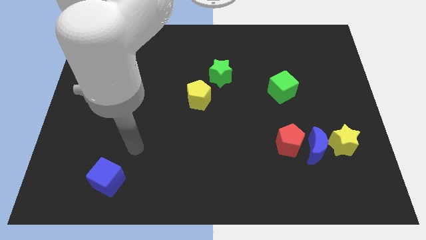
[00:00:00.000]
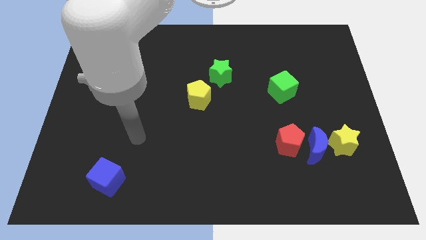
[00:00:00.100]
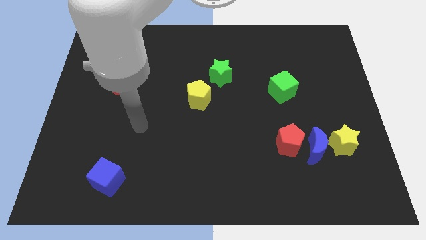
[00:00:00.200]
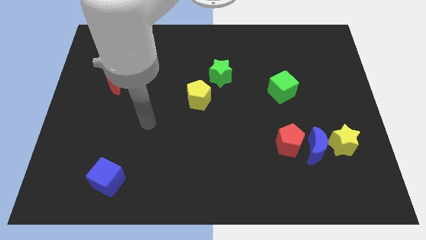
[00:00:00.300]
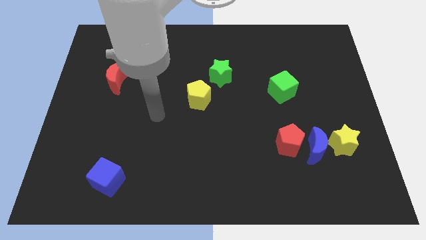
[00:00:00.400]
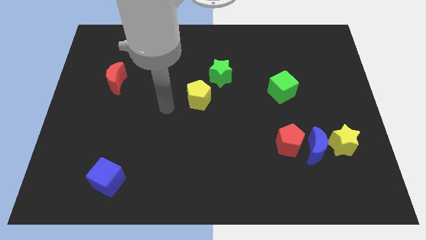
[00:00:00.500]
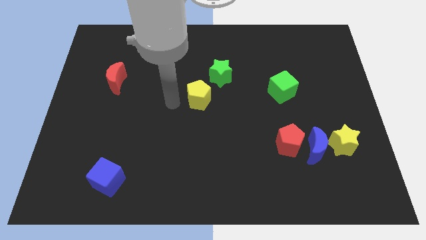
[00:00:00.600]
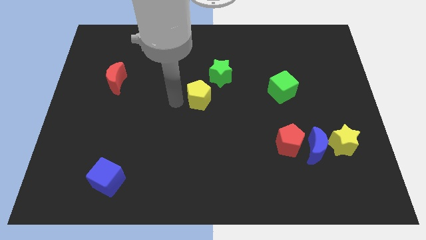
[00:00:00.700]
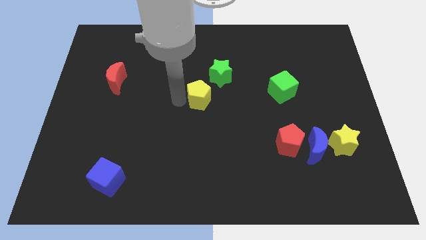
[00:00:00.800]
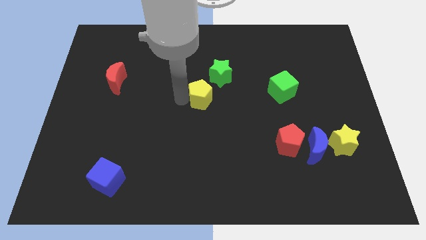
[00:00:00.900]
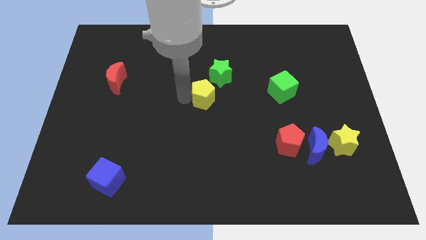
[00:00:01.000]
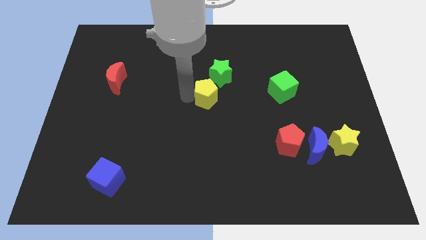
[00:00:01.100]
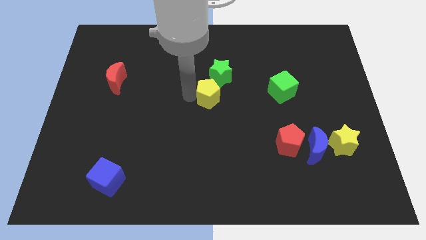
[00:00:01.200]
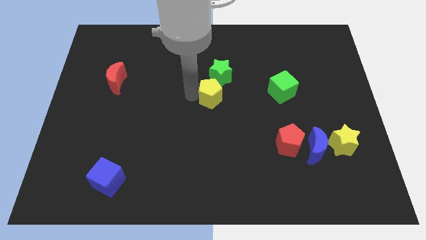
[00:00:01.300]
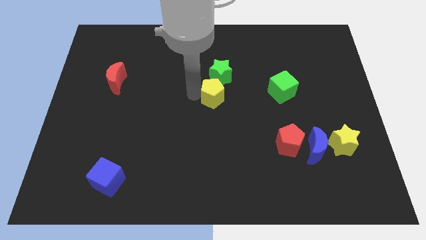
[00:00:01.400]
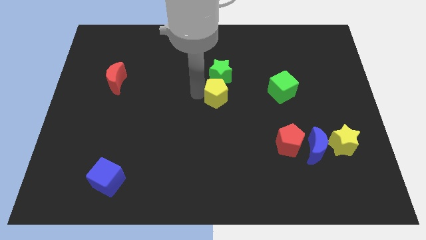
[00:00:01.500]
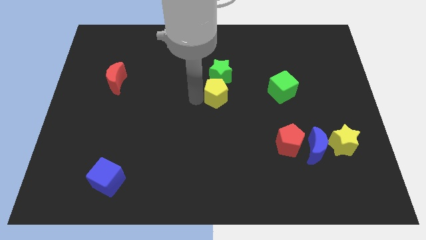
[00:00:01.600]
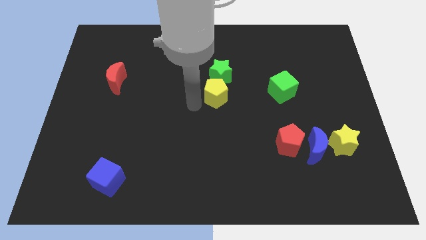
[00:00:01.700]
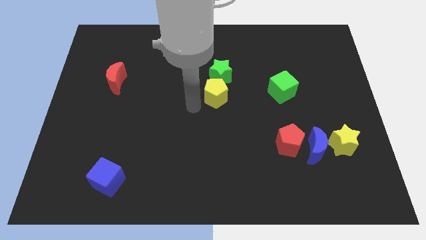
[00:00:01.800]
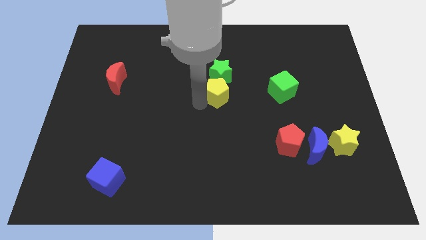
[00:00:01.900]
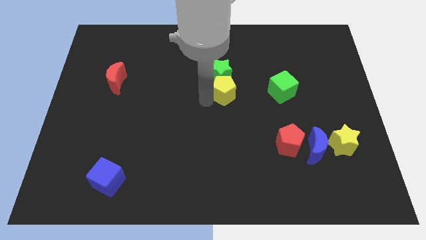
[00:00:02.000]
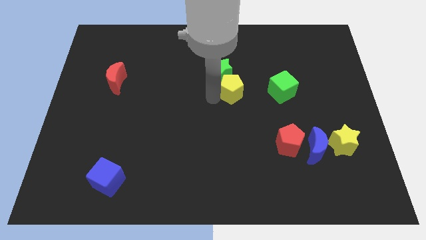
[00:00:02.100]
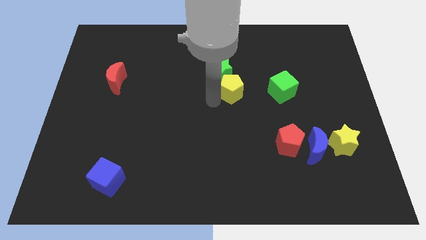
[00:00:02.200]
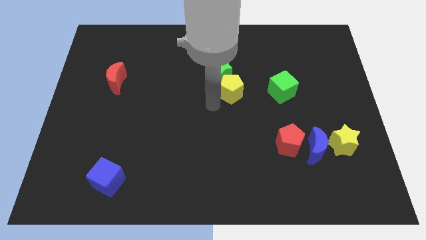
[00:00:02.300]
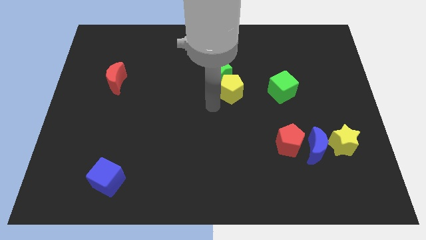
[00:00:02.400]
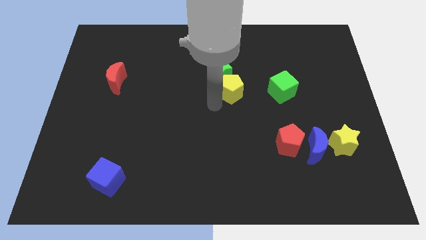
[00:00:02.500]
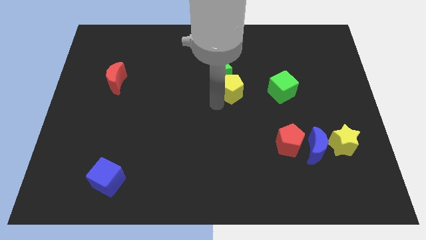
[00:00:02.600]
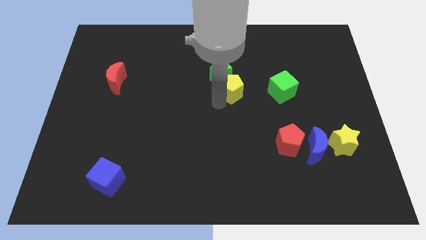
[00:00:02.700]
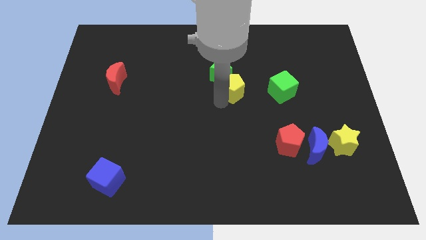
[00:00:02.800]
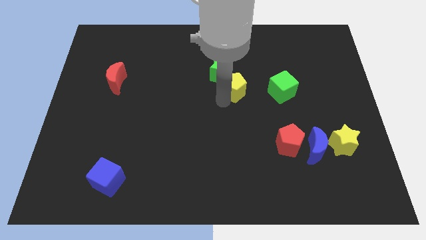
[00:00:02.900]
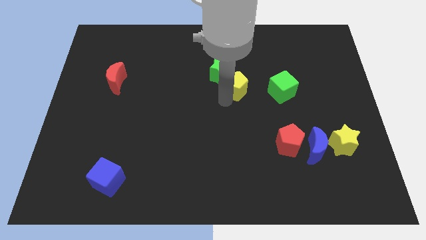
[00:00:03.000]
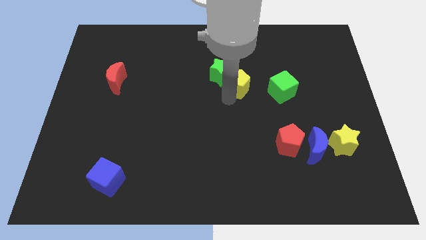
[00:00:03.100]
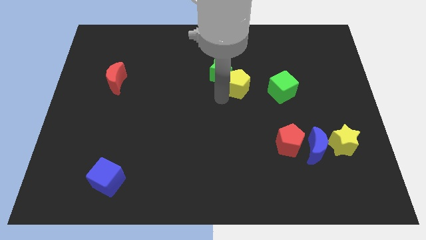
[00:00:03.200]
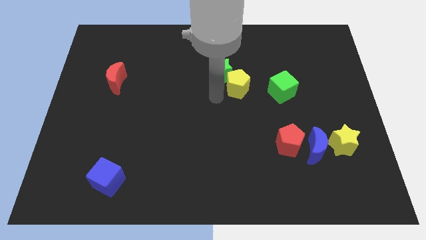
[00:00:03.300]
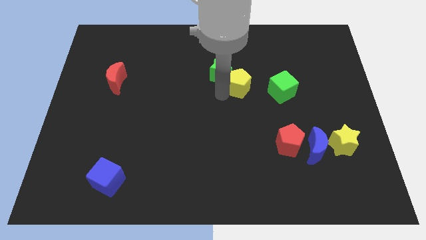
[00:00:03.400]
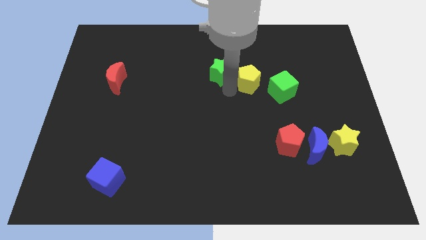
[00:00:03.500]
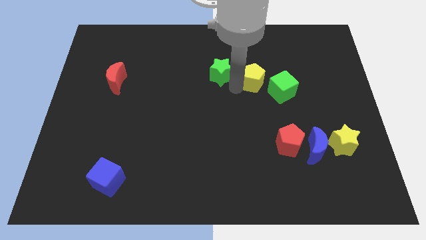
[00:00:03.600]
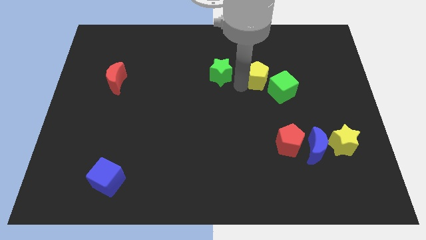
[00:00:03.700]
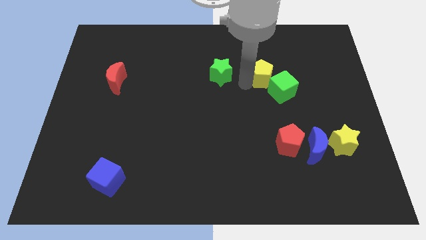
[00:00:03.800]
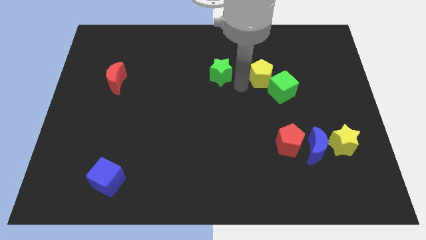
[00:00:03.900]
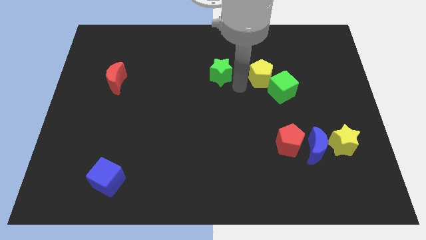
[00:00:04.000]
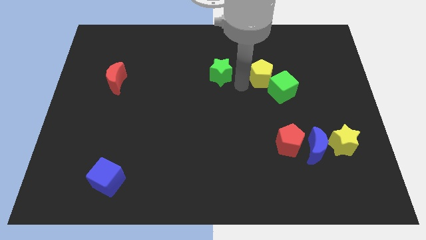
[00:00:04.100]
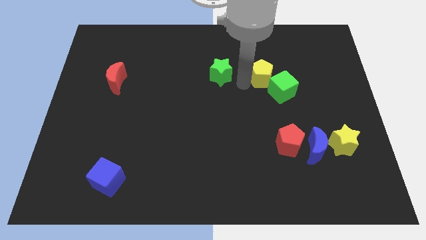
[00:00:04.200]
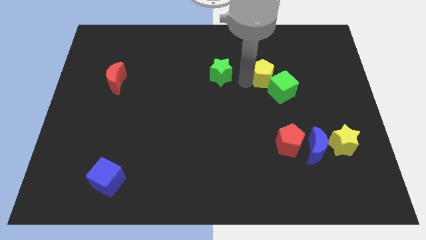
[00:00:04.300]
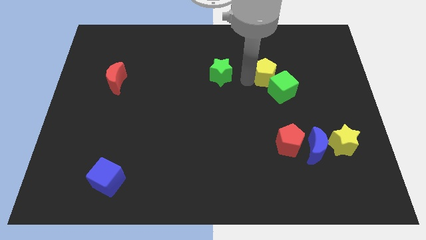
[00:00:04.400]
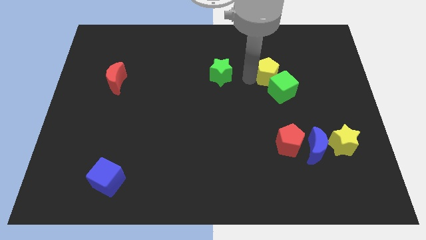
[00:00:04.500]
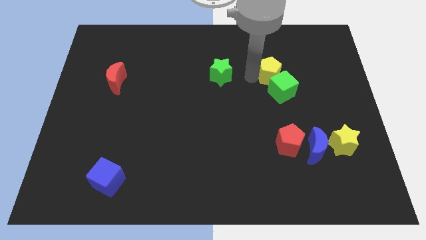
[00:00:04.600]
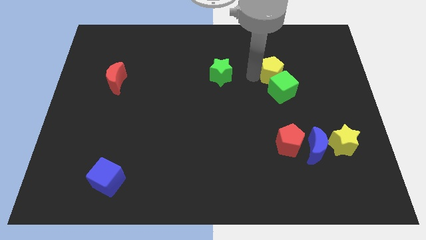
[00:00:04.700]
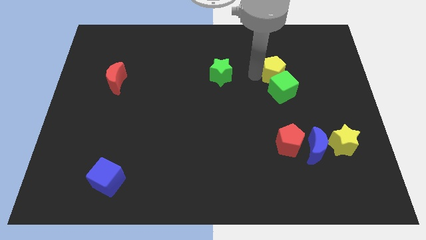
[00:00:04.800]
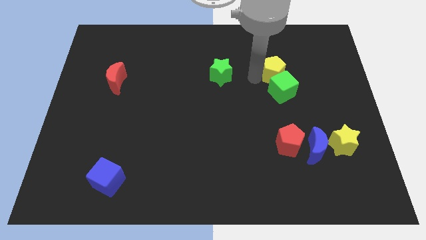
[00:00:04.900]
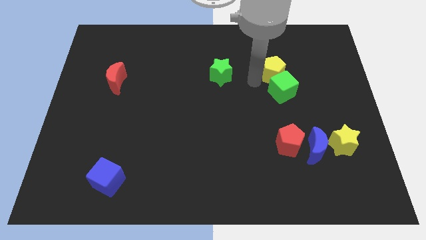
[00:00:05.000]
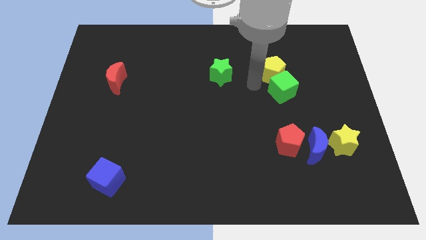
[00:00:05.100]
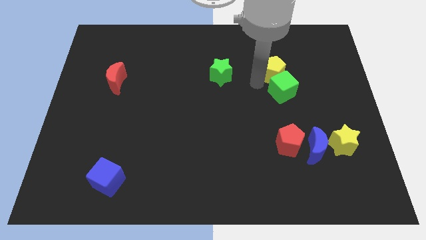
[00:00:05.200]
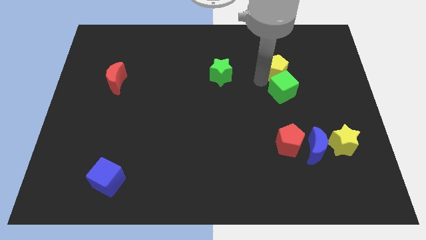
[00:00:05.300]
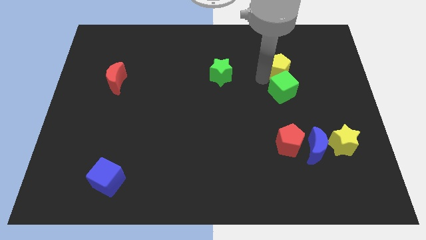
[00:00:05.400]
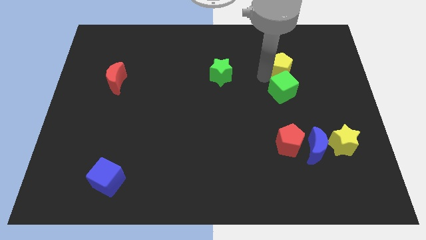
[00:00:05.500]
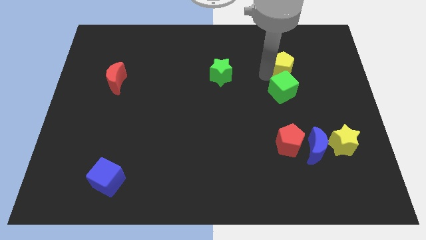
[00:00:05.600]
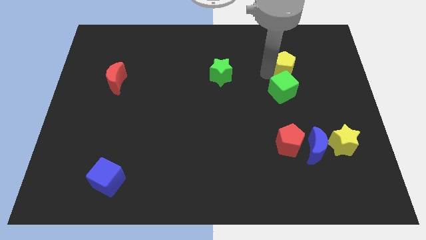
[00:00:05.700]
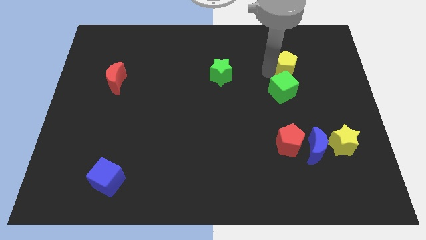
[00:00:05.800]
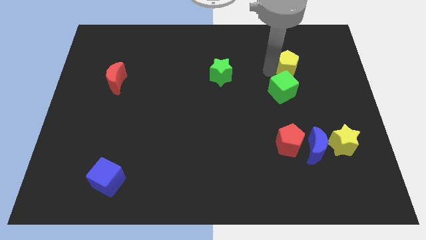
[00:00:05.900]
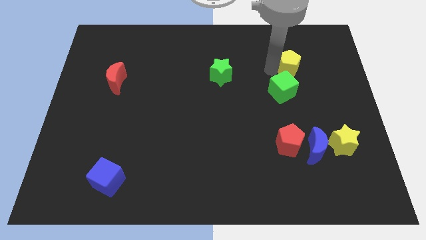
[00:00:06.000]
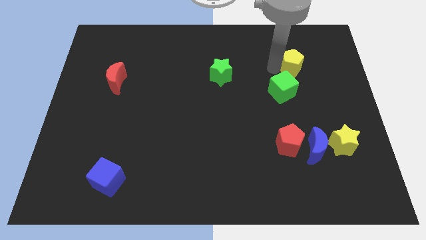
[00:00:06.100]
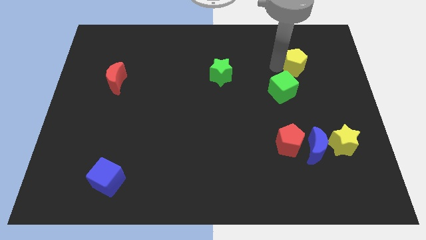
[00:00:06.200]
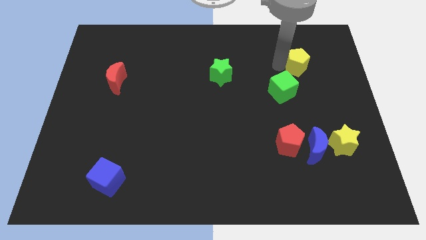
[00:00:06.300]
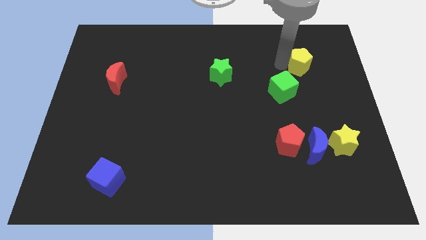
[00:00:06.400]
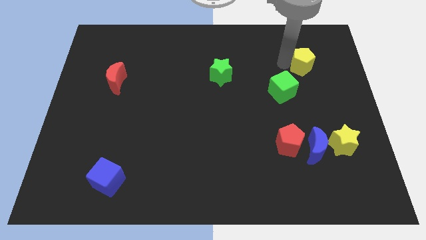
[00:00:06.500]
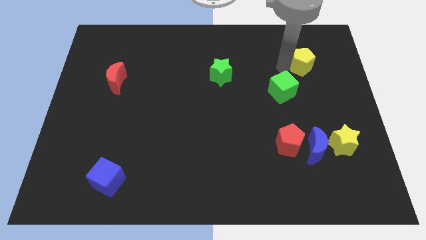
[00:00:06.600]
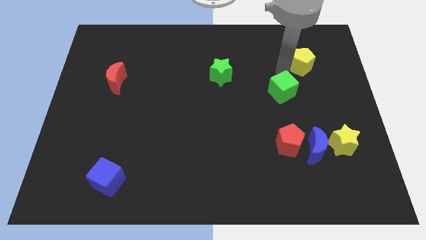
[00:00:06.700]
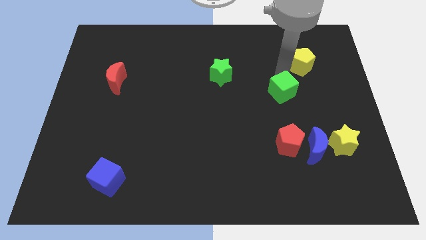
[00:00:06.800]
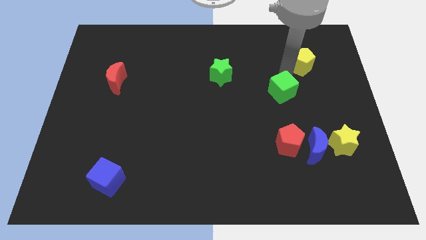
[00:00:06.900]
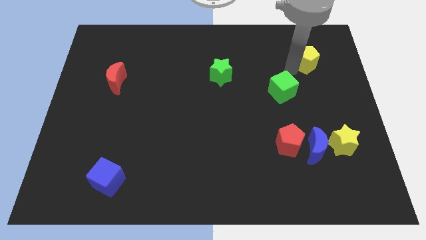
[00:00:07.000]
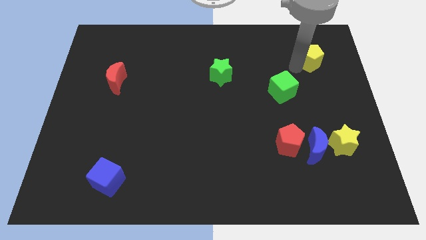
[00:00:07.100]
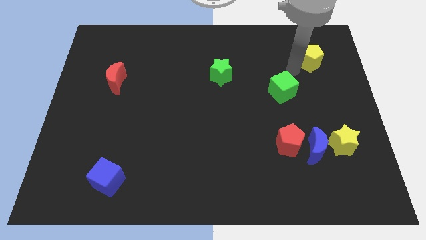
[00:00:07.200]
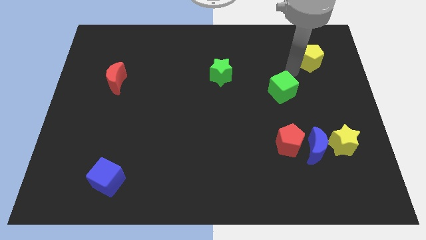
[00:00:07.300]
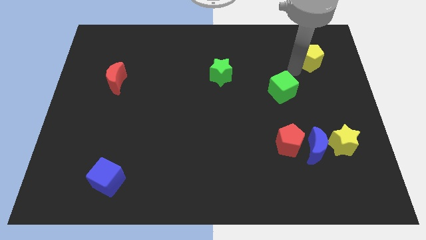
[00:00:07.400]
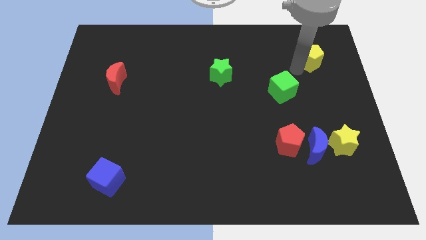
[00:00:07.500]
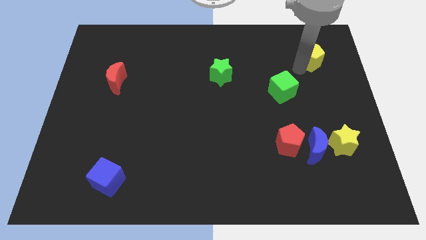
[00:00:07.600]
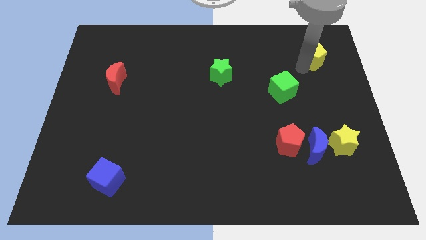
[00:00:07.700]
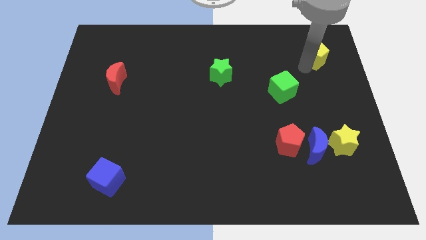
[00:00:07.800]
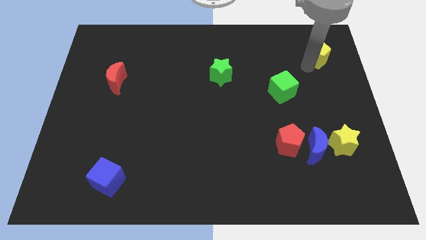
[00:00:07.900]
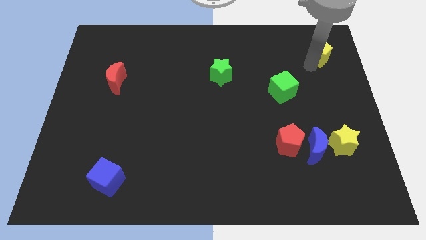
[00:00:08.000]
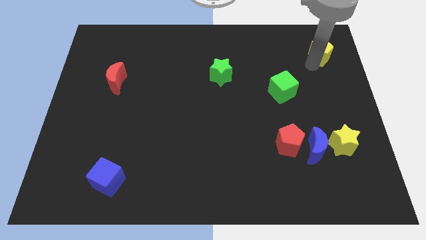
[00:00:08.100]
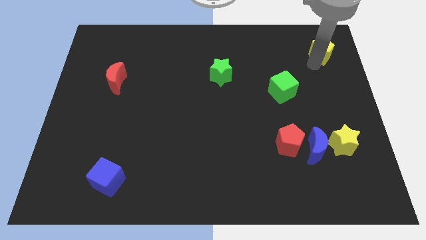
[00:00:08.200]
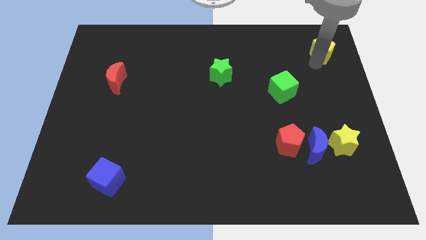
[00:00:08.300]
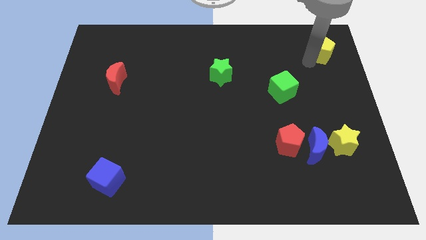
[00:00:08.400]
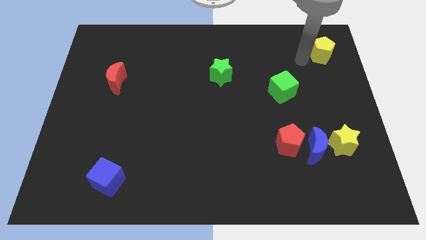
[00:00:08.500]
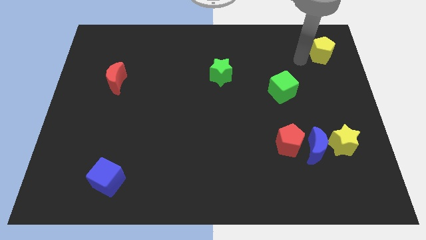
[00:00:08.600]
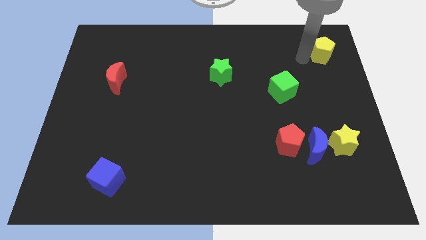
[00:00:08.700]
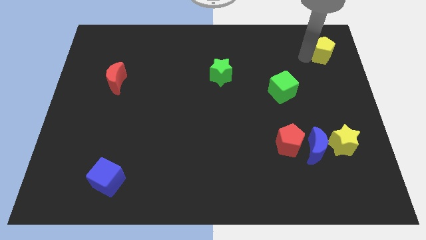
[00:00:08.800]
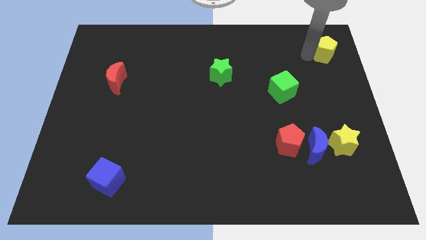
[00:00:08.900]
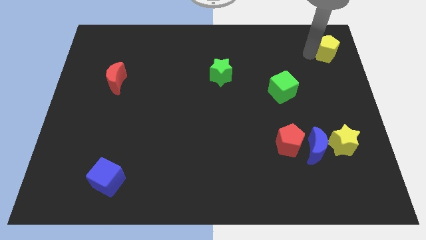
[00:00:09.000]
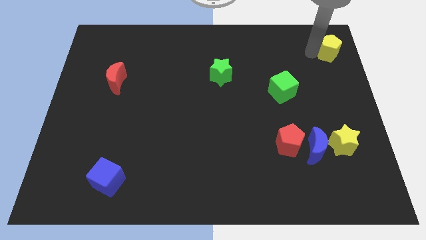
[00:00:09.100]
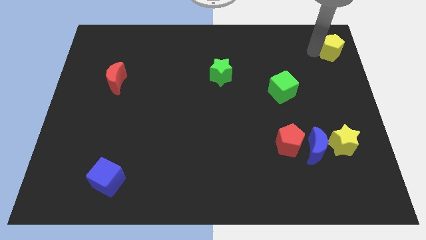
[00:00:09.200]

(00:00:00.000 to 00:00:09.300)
push the yellow pentagon to the top right
